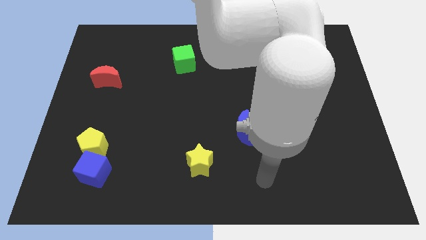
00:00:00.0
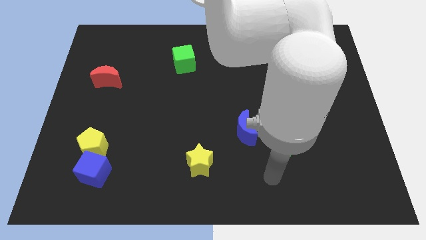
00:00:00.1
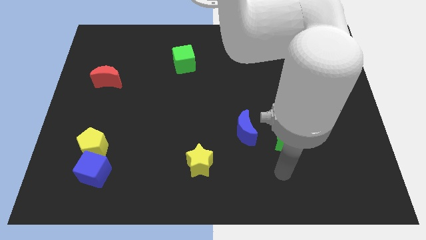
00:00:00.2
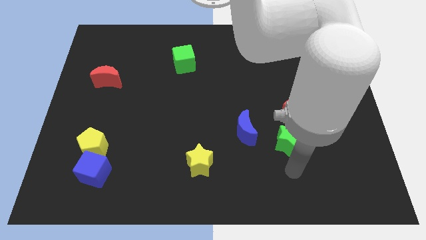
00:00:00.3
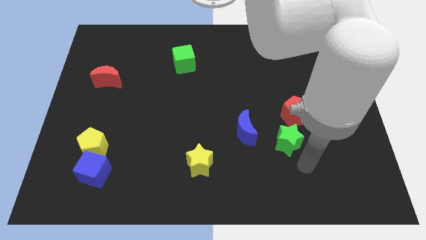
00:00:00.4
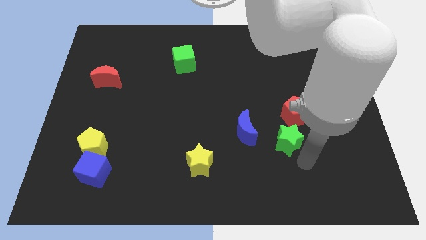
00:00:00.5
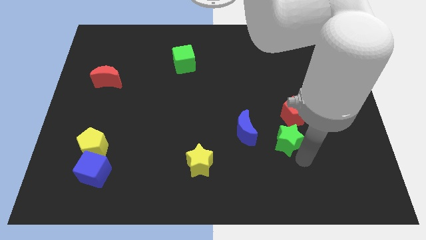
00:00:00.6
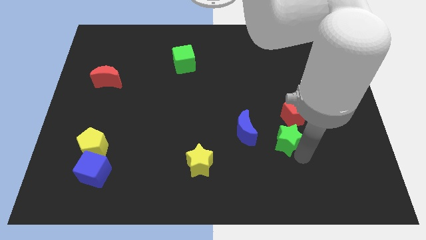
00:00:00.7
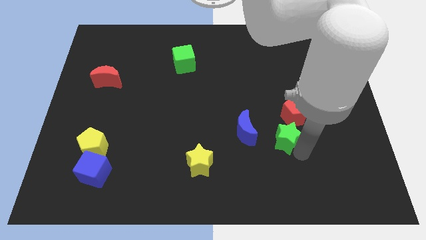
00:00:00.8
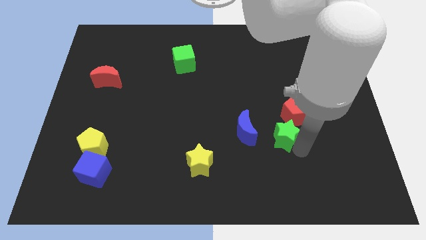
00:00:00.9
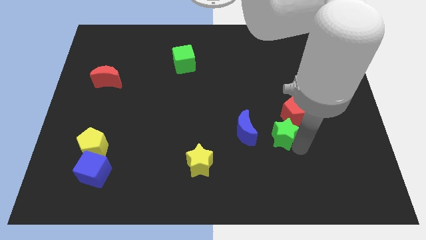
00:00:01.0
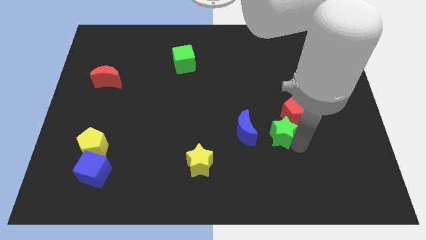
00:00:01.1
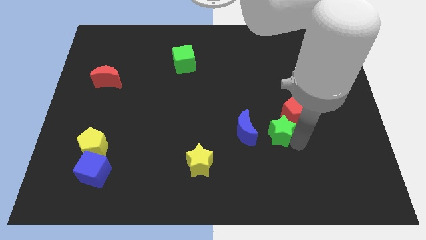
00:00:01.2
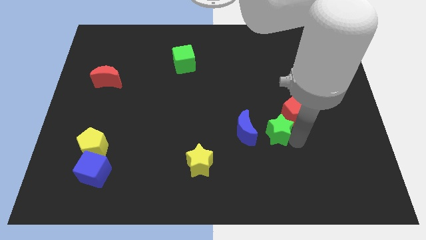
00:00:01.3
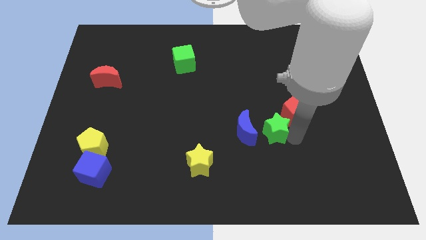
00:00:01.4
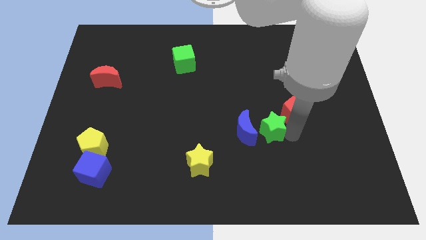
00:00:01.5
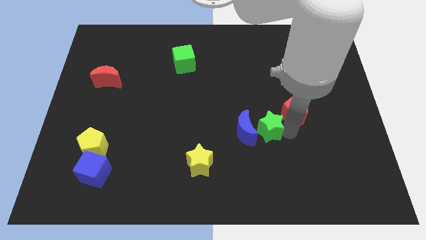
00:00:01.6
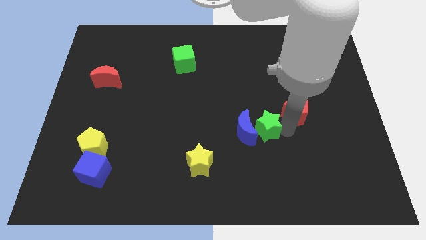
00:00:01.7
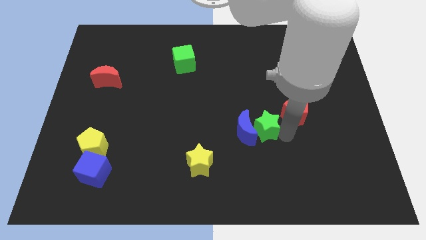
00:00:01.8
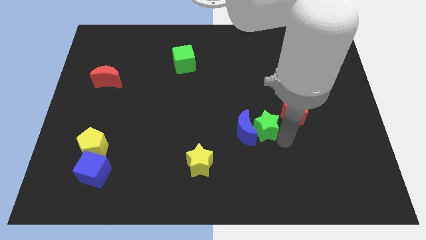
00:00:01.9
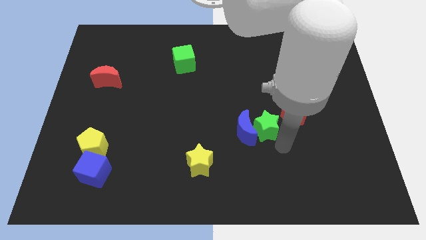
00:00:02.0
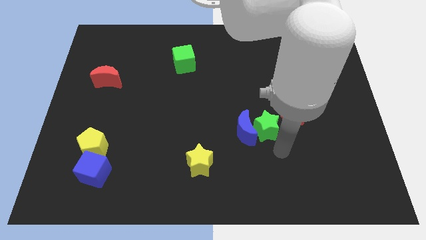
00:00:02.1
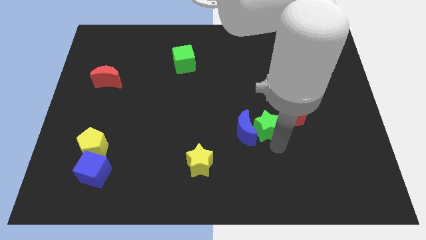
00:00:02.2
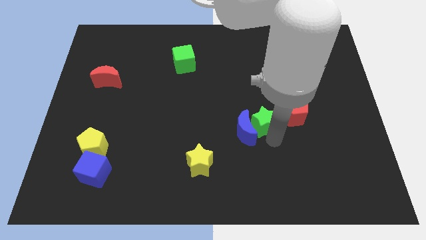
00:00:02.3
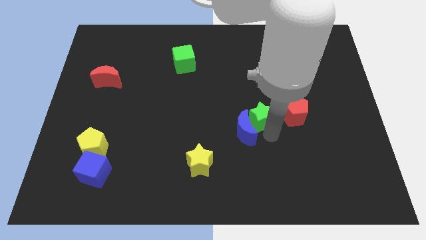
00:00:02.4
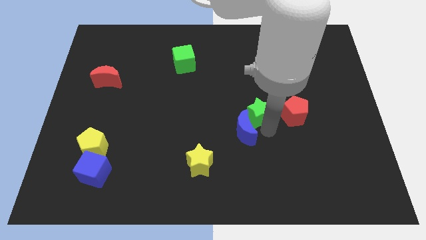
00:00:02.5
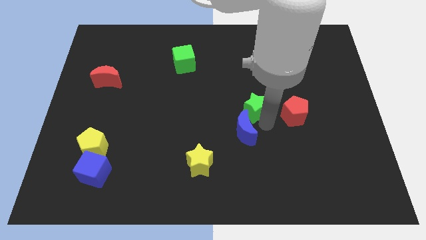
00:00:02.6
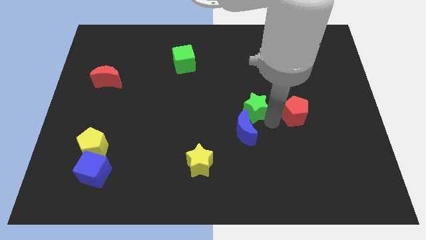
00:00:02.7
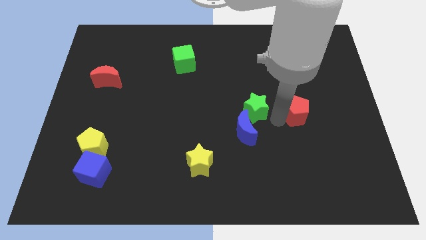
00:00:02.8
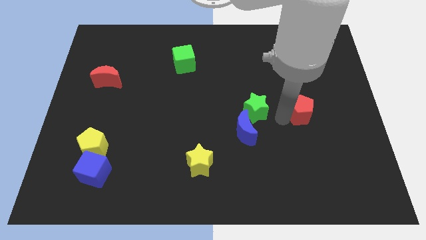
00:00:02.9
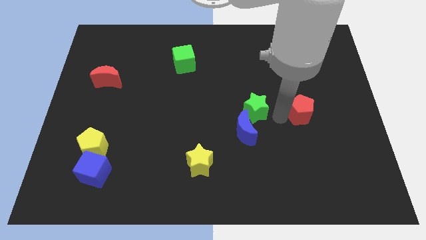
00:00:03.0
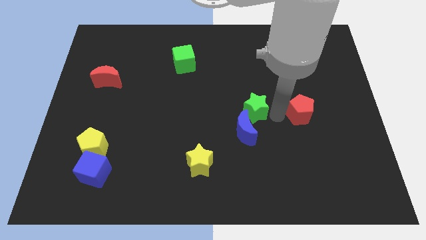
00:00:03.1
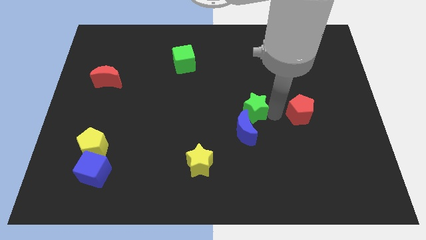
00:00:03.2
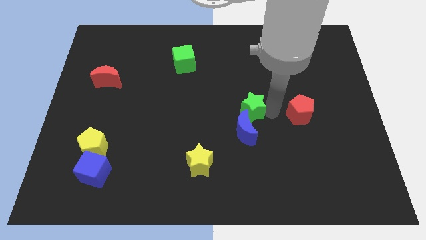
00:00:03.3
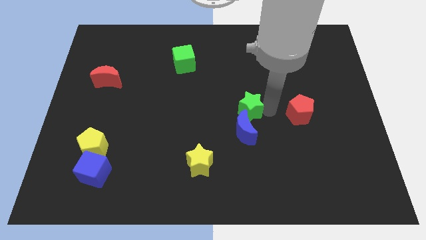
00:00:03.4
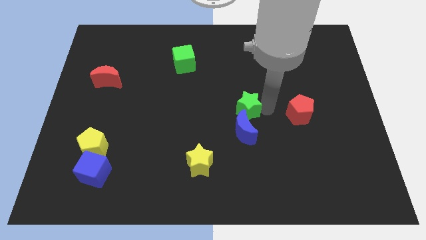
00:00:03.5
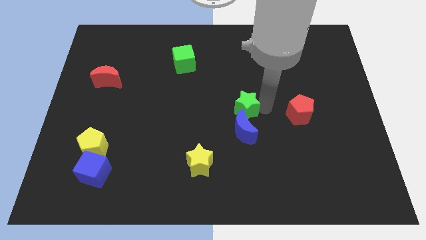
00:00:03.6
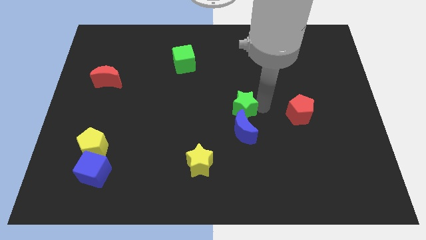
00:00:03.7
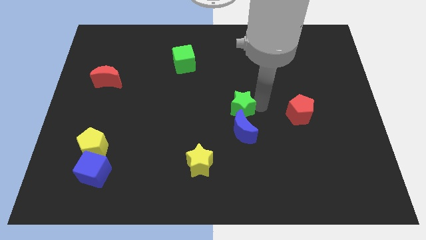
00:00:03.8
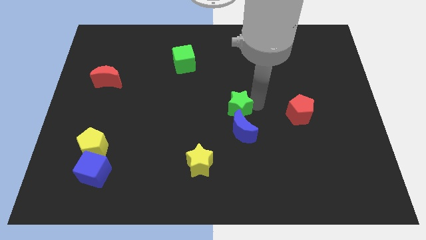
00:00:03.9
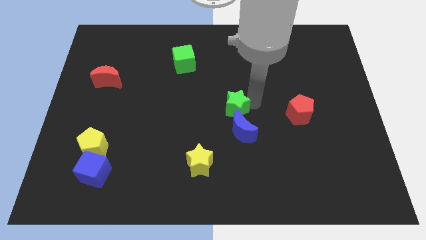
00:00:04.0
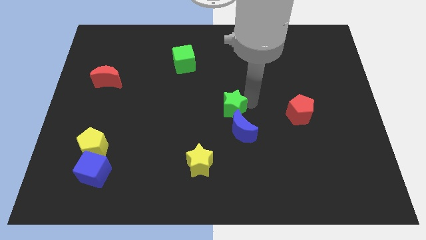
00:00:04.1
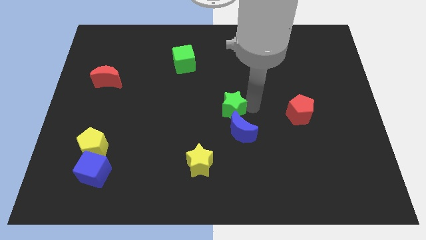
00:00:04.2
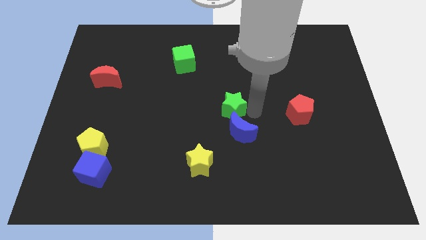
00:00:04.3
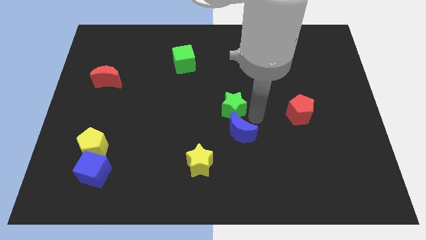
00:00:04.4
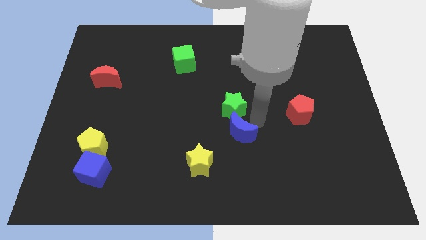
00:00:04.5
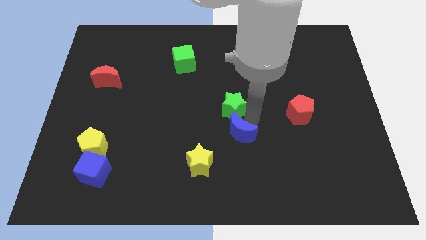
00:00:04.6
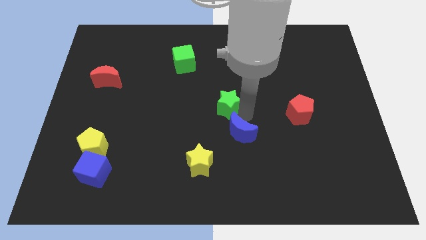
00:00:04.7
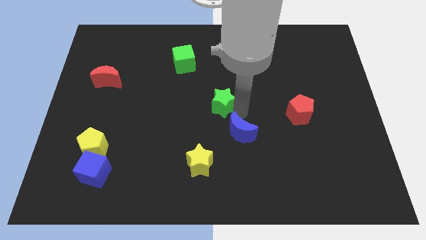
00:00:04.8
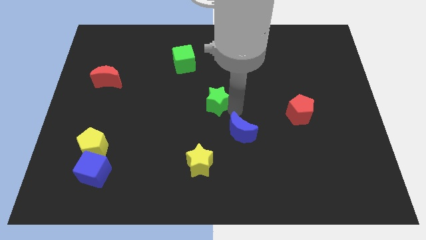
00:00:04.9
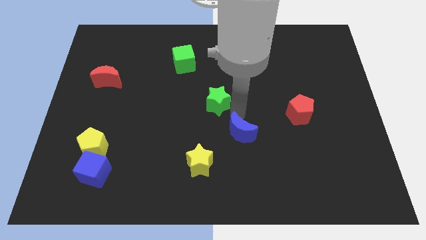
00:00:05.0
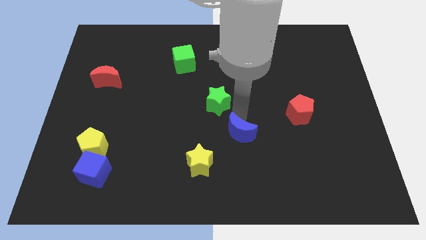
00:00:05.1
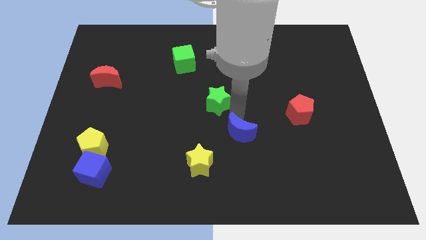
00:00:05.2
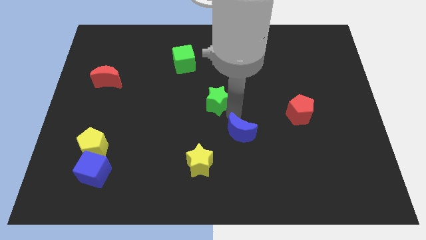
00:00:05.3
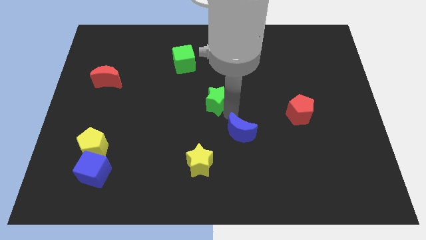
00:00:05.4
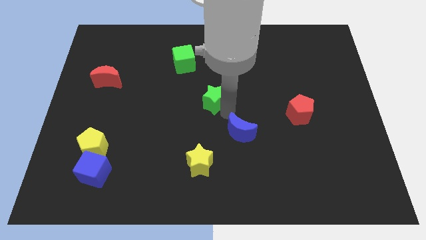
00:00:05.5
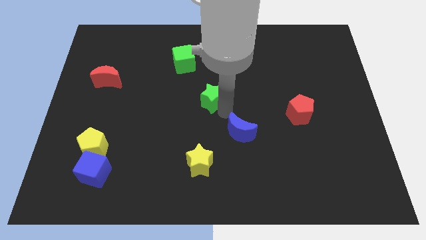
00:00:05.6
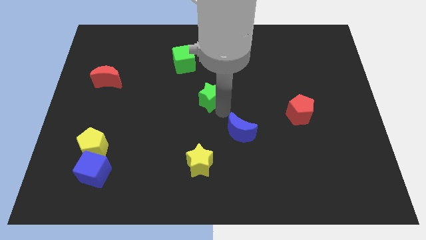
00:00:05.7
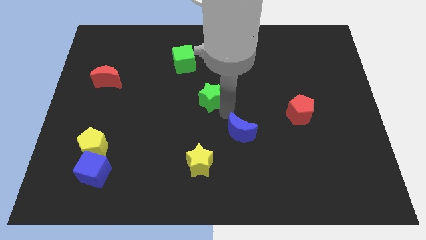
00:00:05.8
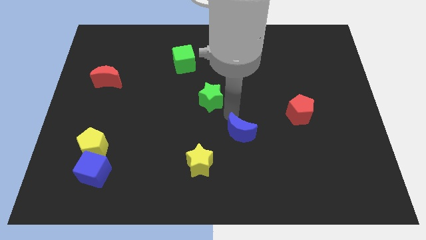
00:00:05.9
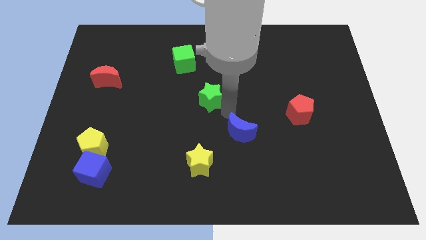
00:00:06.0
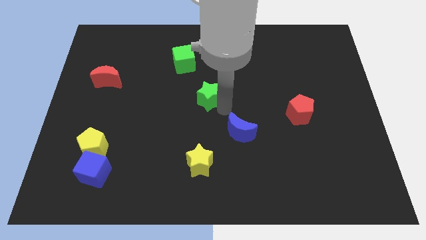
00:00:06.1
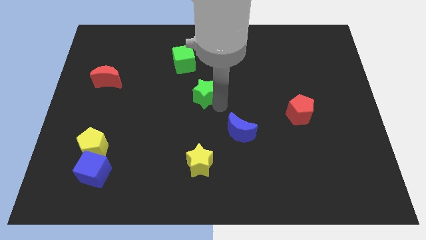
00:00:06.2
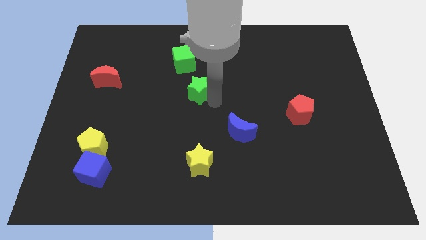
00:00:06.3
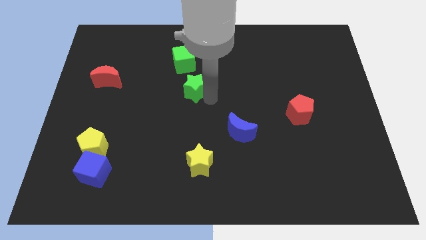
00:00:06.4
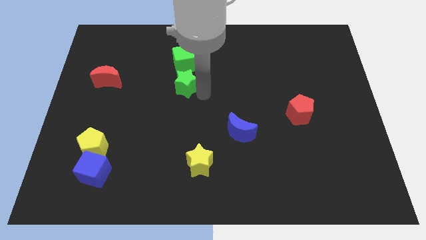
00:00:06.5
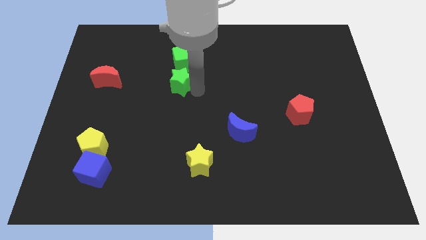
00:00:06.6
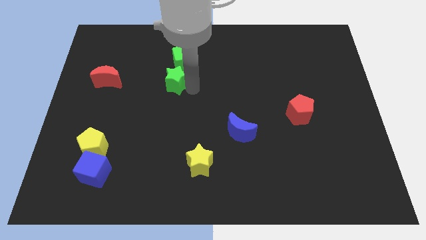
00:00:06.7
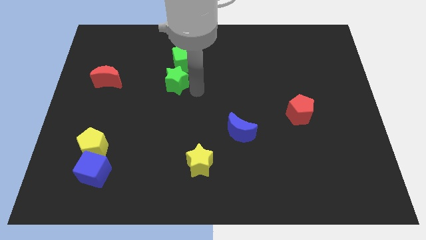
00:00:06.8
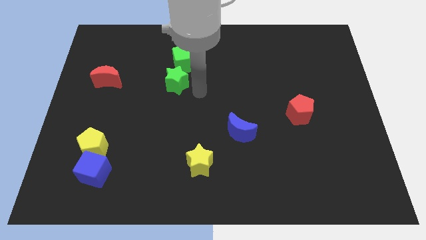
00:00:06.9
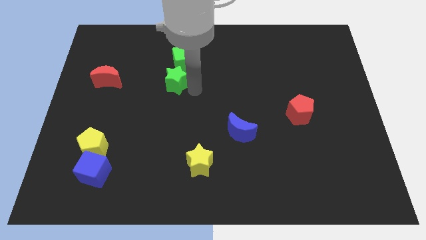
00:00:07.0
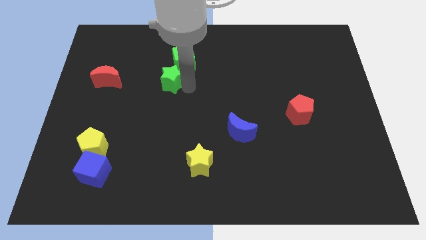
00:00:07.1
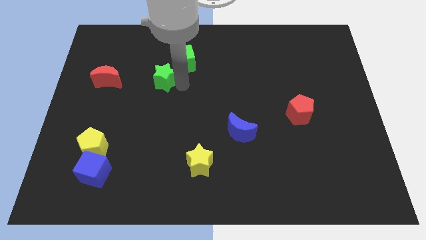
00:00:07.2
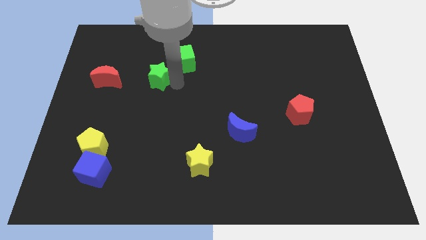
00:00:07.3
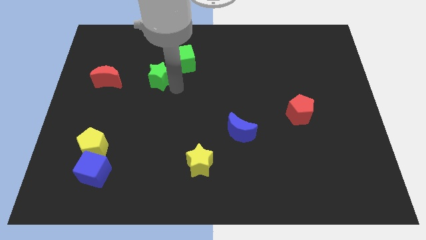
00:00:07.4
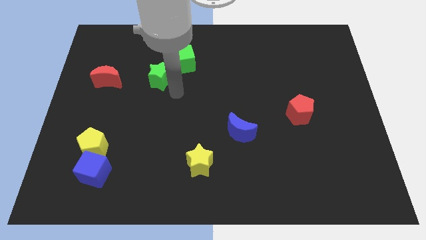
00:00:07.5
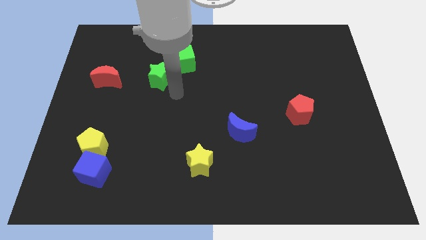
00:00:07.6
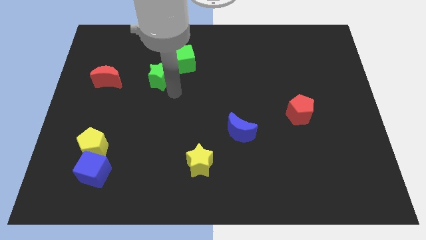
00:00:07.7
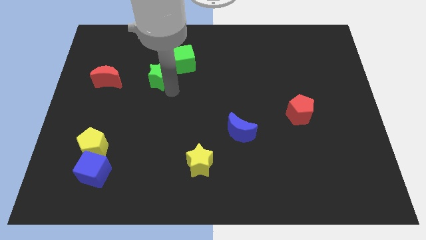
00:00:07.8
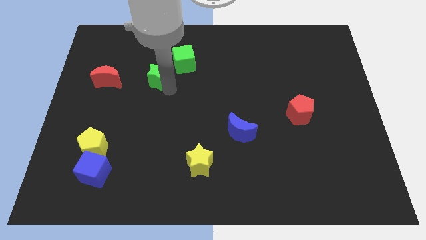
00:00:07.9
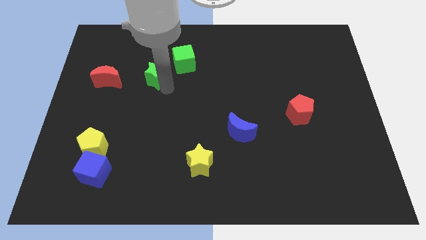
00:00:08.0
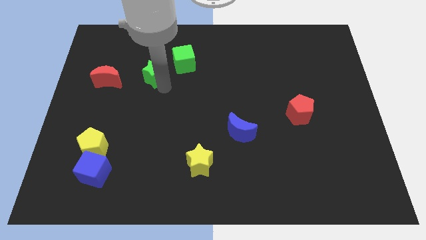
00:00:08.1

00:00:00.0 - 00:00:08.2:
put the green star to the left side of the green cube
